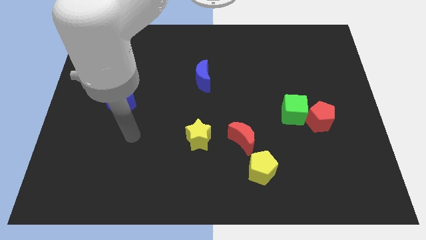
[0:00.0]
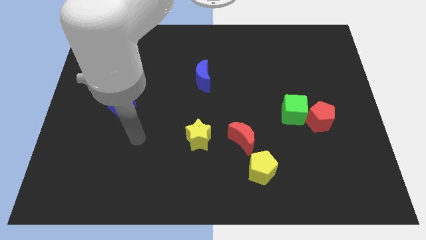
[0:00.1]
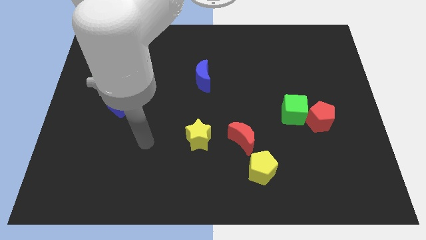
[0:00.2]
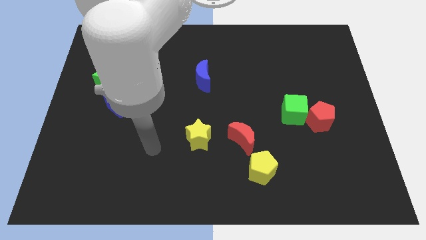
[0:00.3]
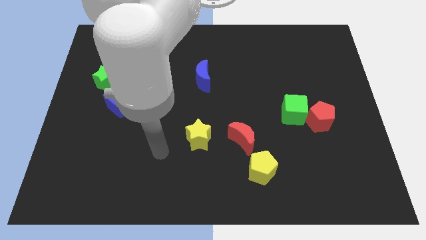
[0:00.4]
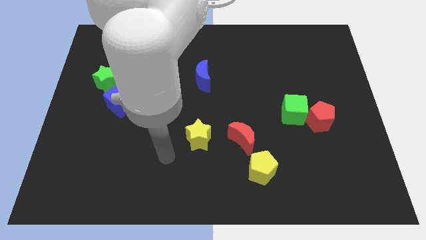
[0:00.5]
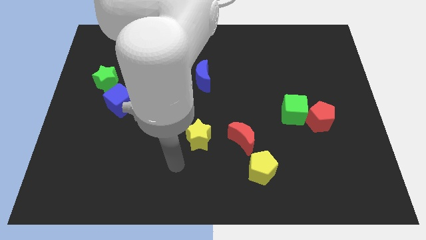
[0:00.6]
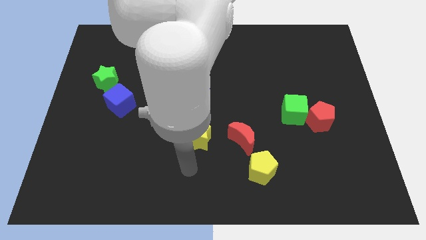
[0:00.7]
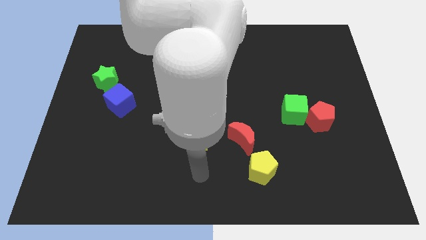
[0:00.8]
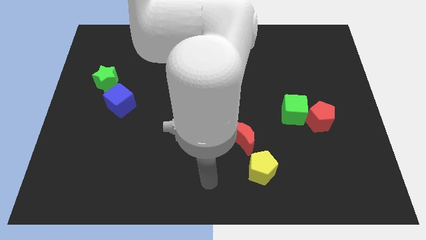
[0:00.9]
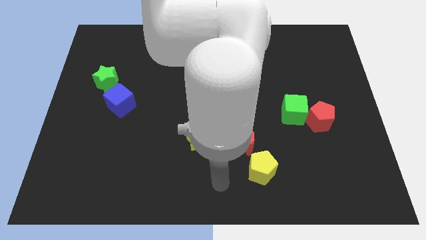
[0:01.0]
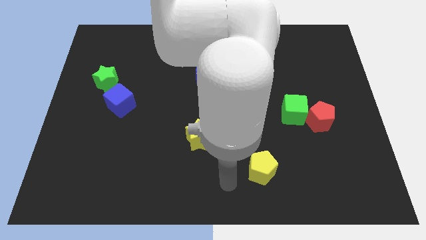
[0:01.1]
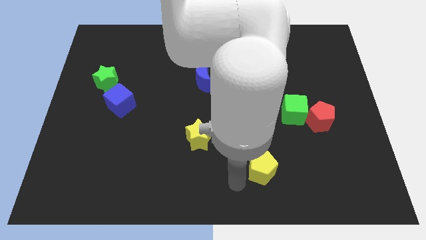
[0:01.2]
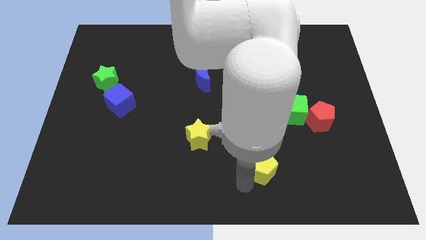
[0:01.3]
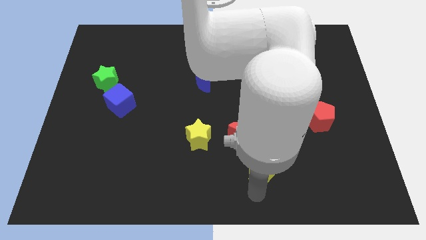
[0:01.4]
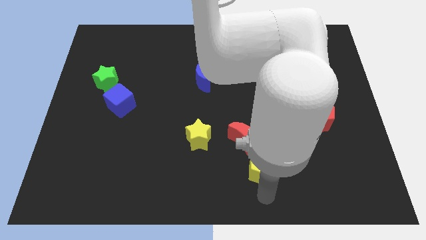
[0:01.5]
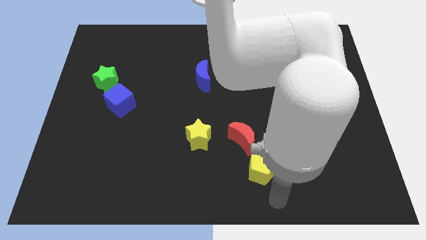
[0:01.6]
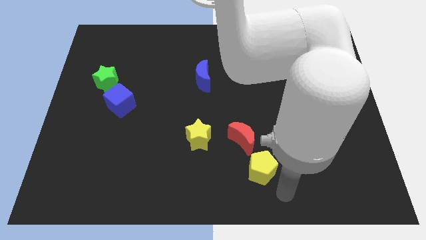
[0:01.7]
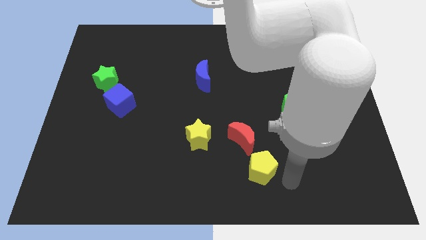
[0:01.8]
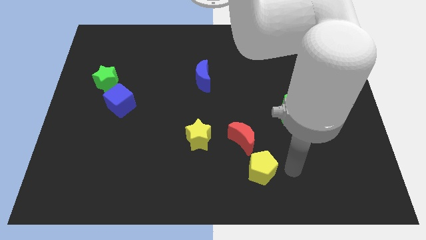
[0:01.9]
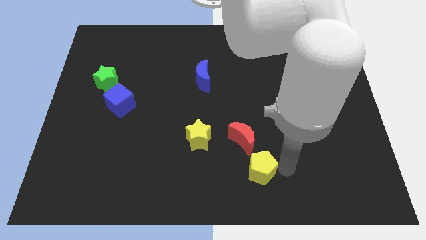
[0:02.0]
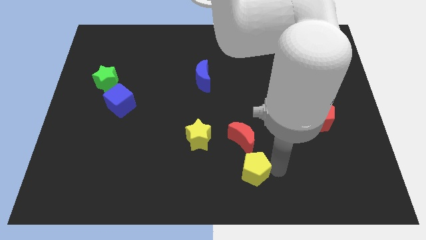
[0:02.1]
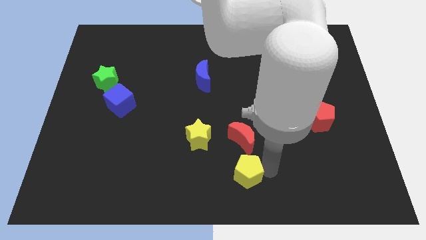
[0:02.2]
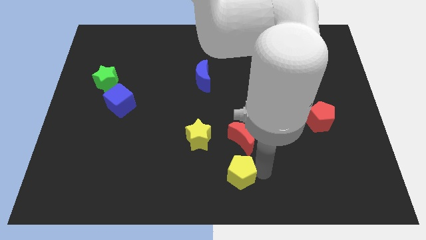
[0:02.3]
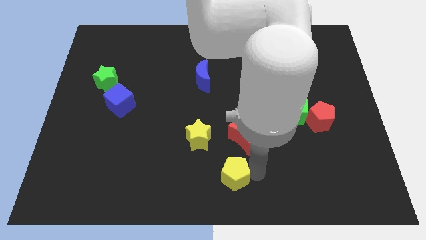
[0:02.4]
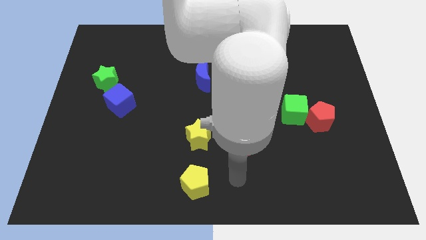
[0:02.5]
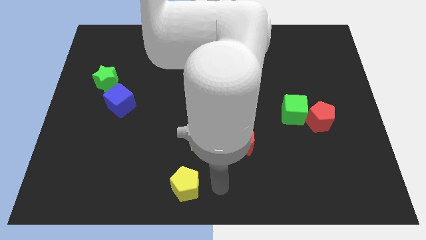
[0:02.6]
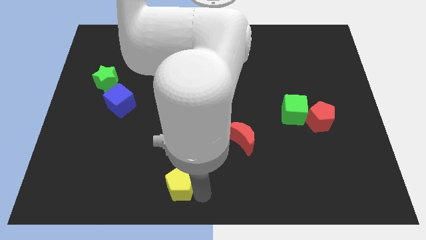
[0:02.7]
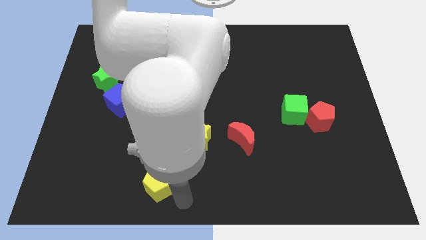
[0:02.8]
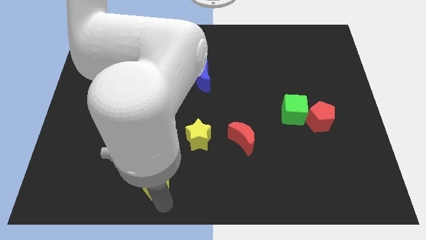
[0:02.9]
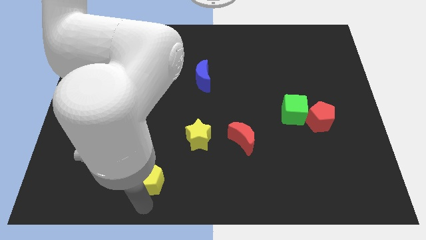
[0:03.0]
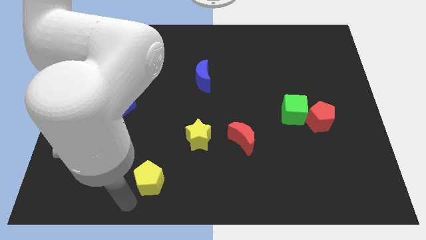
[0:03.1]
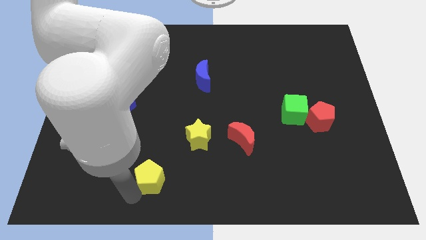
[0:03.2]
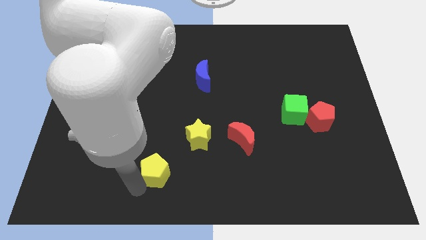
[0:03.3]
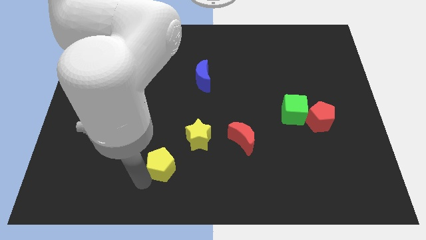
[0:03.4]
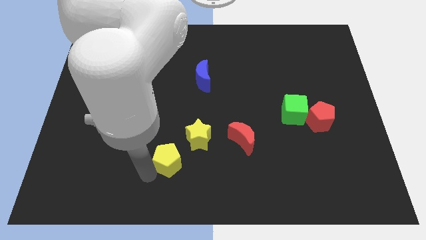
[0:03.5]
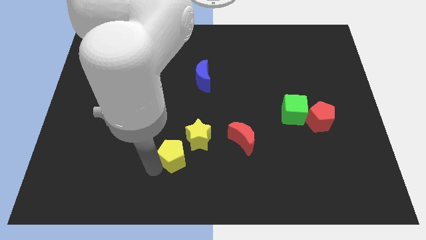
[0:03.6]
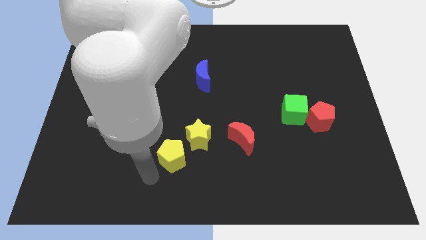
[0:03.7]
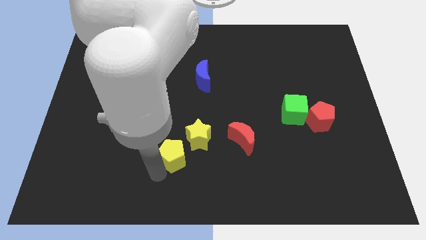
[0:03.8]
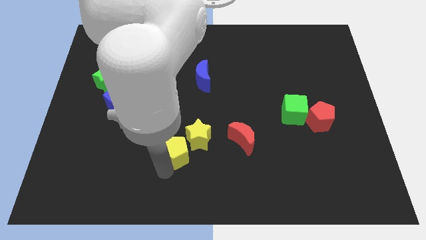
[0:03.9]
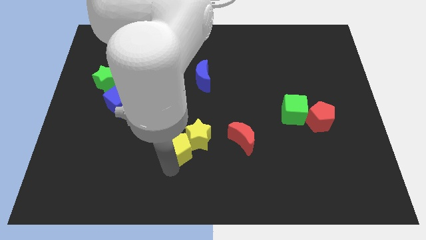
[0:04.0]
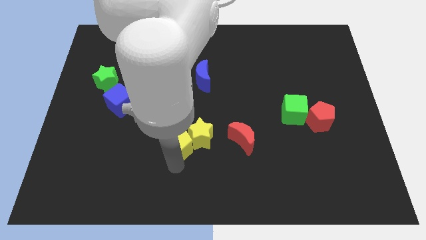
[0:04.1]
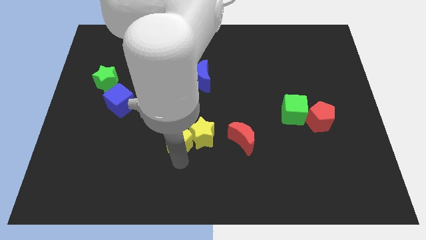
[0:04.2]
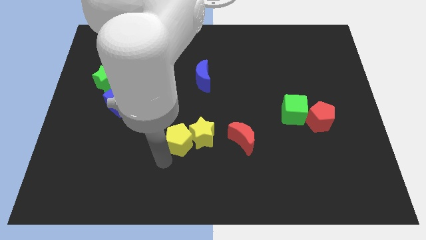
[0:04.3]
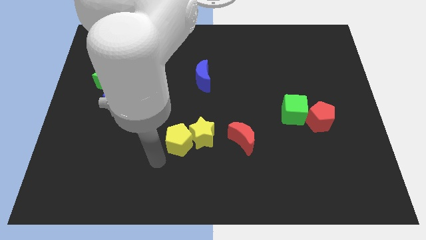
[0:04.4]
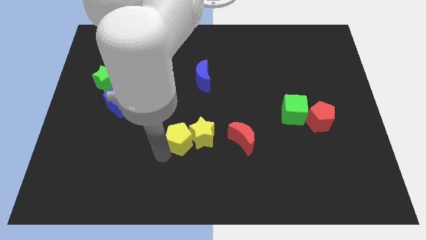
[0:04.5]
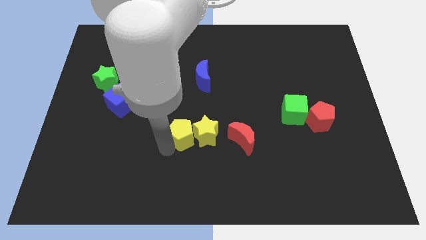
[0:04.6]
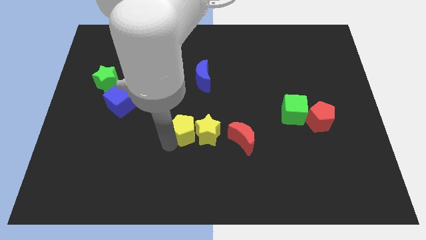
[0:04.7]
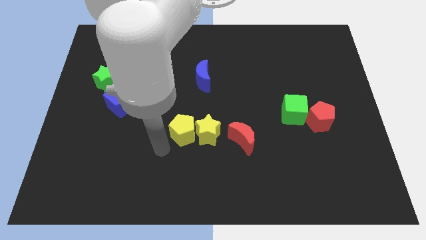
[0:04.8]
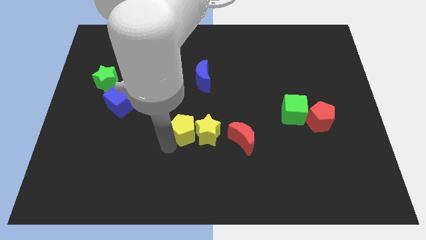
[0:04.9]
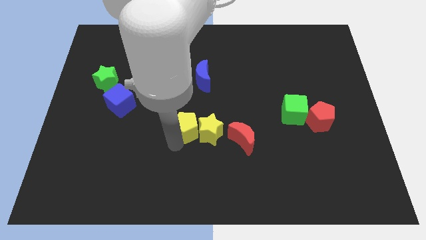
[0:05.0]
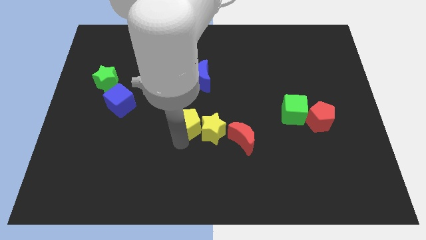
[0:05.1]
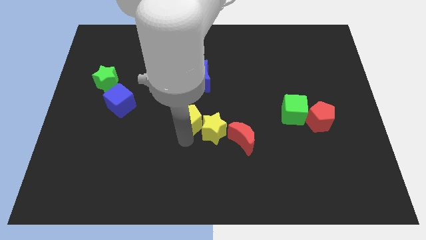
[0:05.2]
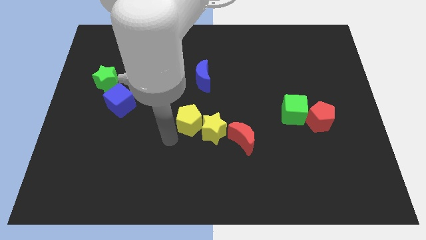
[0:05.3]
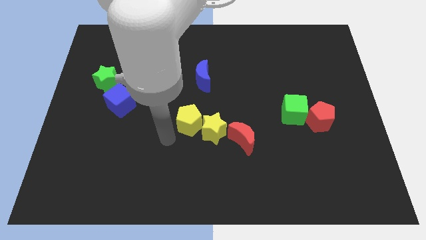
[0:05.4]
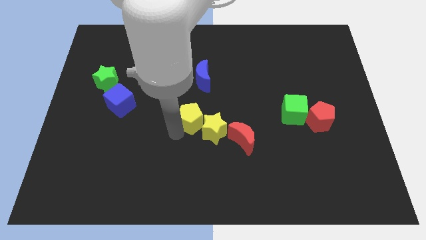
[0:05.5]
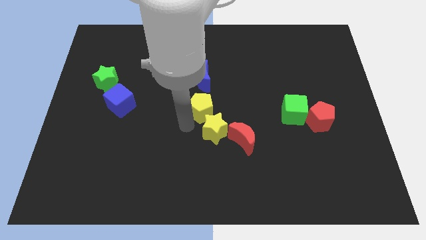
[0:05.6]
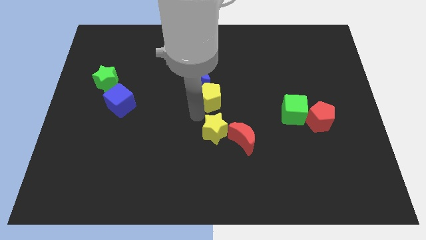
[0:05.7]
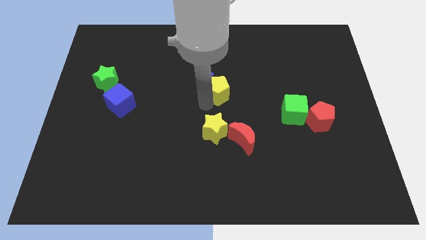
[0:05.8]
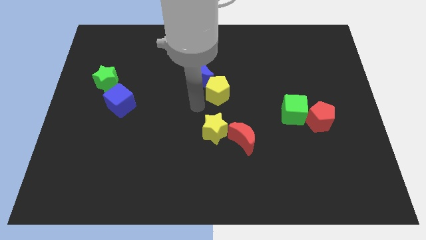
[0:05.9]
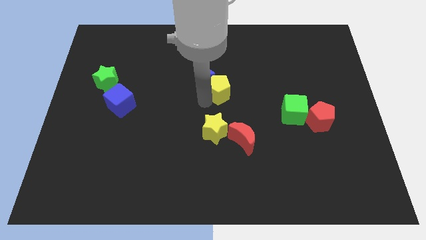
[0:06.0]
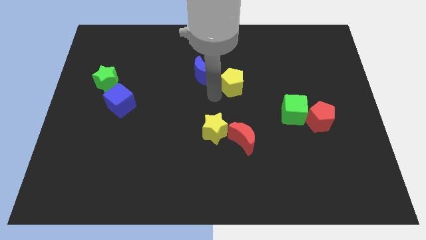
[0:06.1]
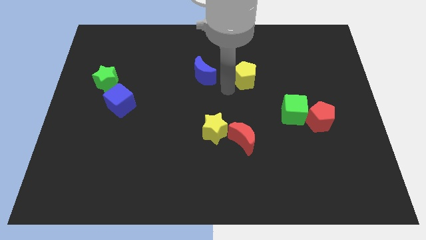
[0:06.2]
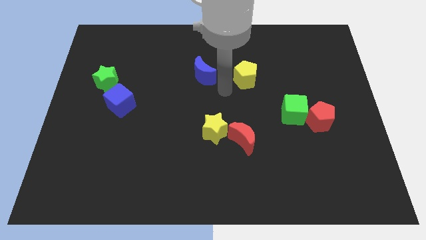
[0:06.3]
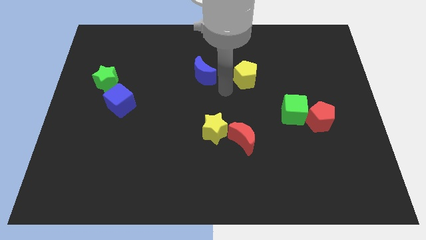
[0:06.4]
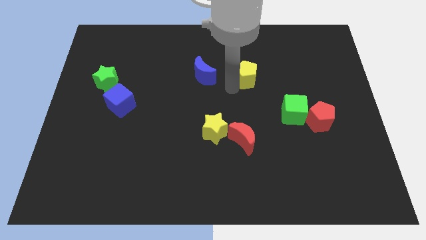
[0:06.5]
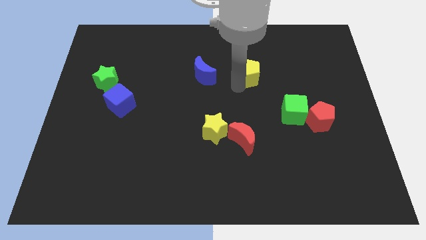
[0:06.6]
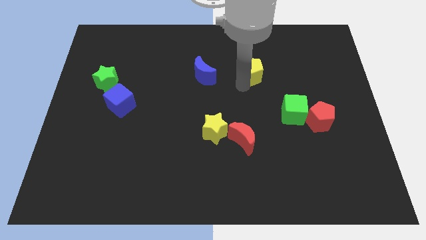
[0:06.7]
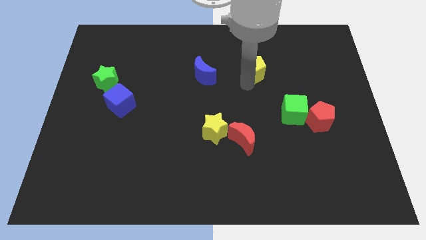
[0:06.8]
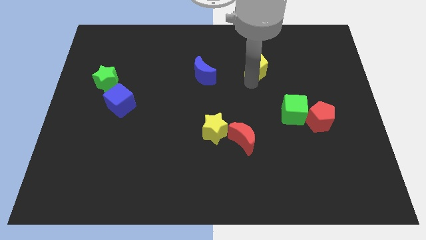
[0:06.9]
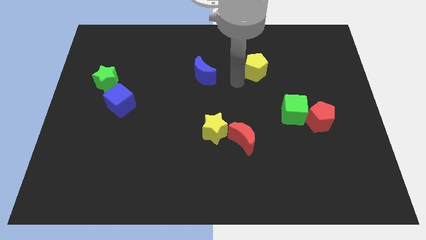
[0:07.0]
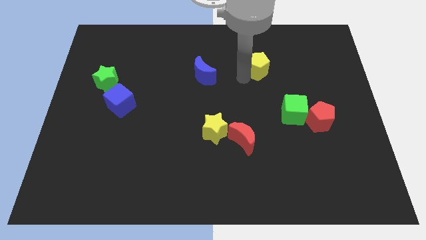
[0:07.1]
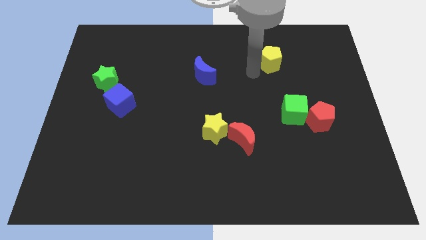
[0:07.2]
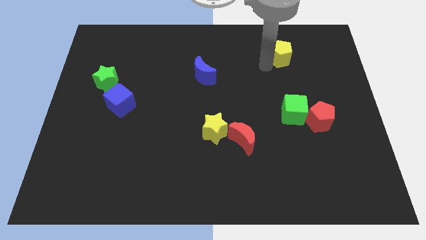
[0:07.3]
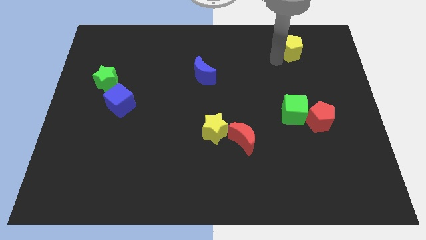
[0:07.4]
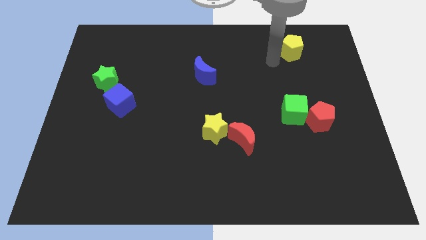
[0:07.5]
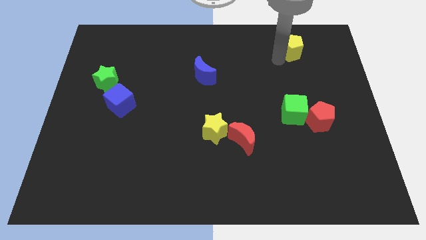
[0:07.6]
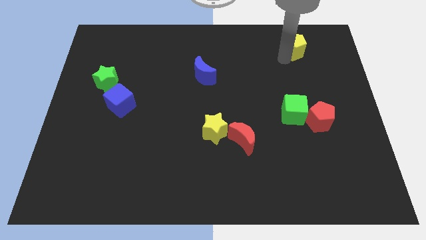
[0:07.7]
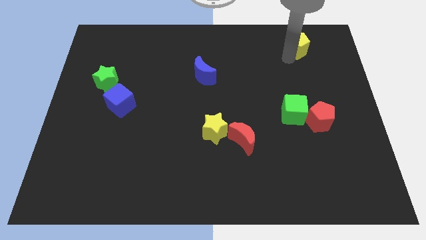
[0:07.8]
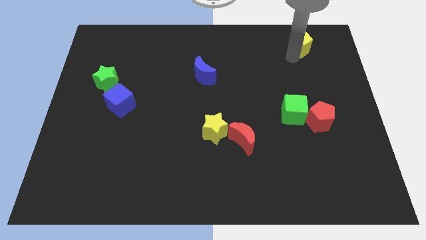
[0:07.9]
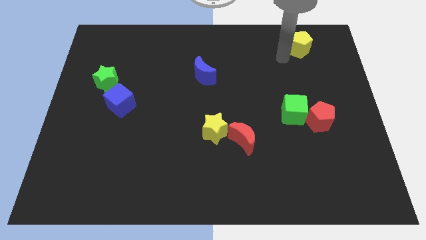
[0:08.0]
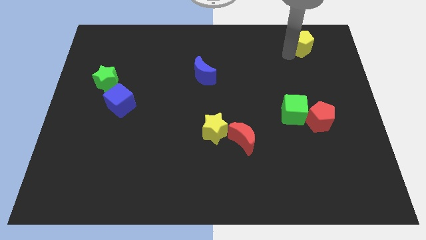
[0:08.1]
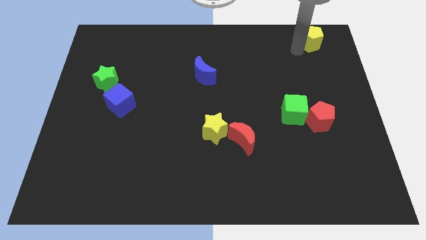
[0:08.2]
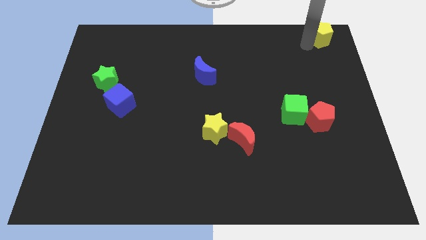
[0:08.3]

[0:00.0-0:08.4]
push the yellow pentagon to the top right of the board
